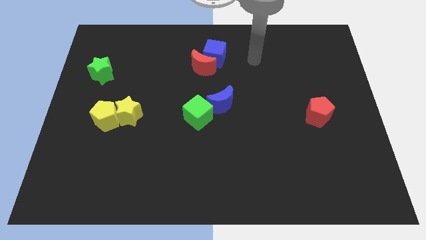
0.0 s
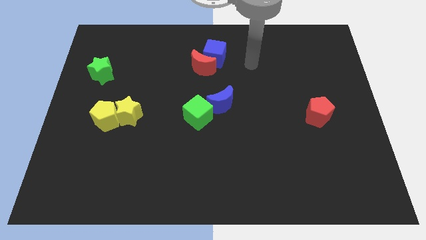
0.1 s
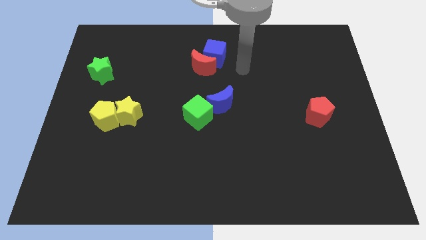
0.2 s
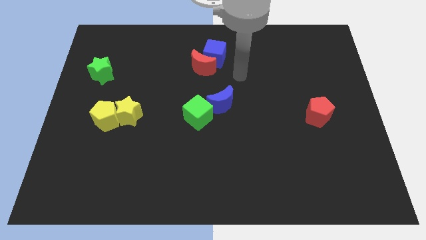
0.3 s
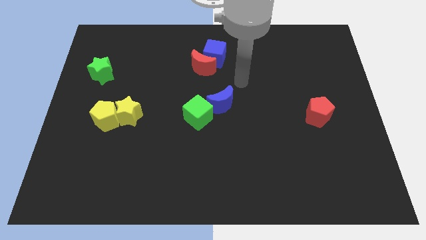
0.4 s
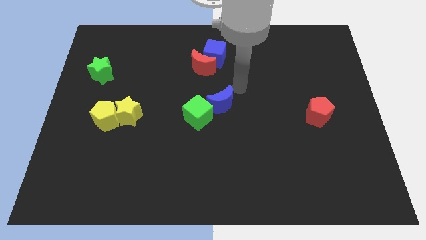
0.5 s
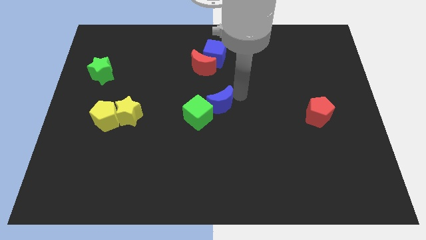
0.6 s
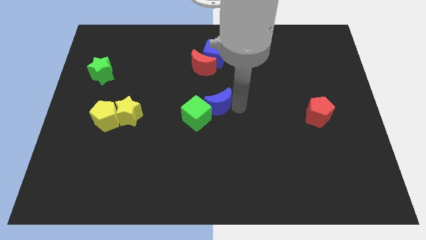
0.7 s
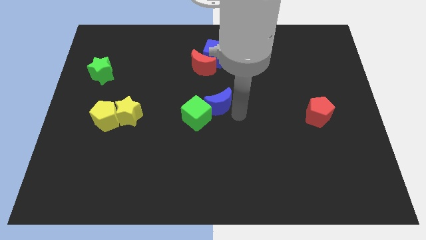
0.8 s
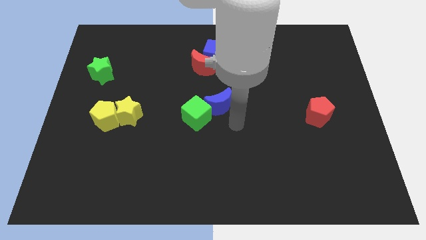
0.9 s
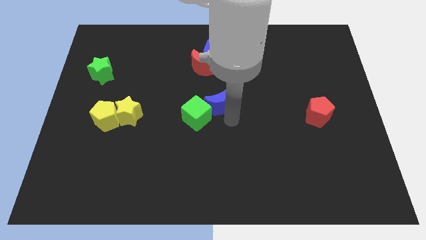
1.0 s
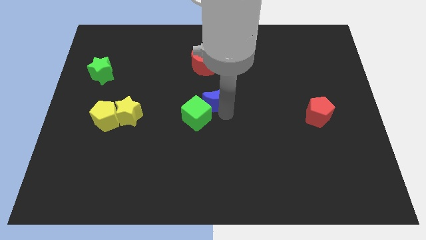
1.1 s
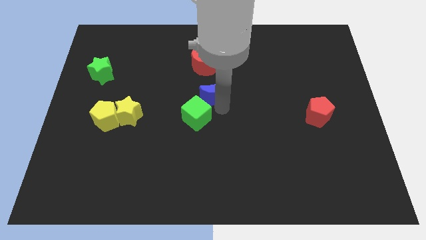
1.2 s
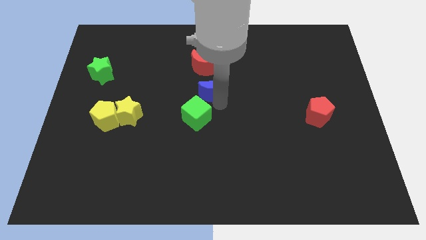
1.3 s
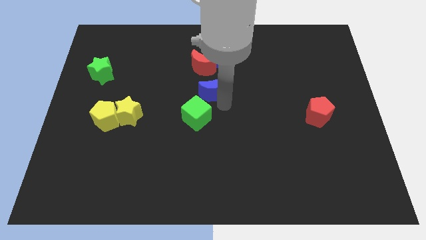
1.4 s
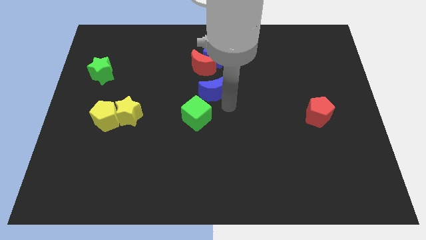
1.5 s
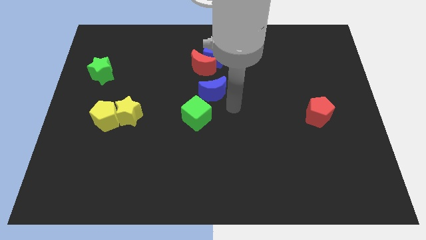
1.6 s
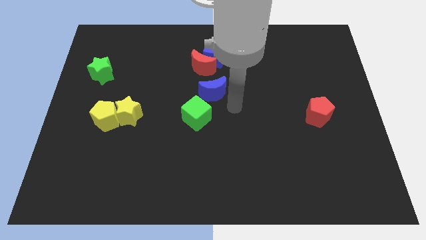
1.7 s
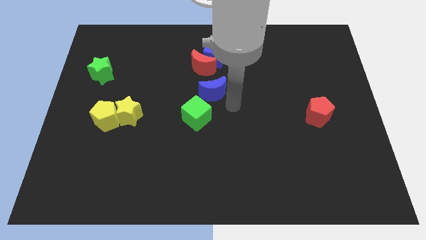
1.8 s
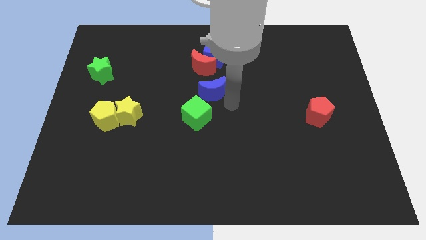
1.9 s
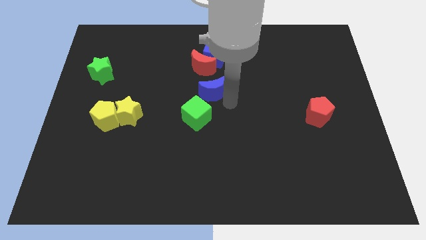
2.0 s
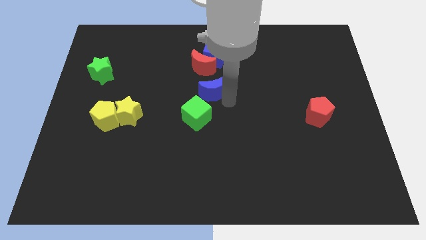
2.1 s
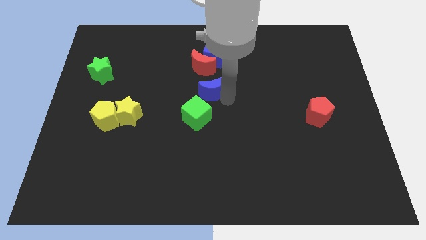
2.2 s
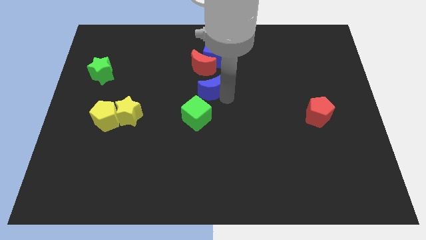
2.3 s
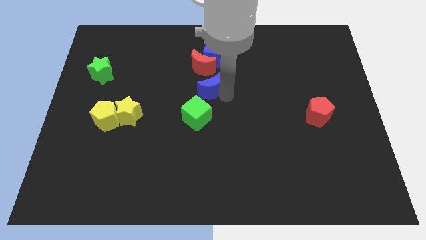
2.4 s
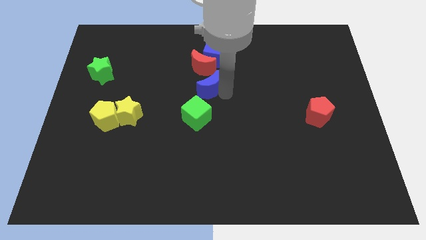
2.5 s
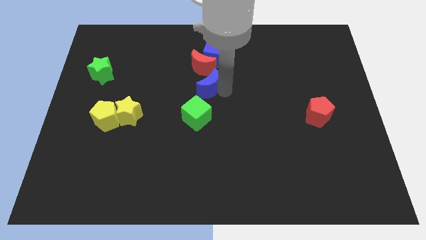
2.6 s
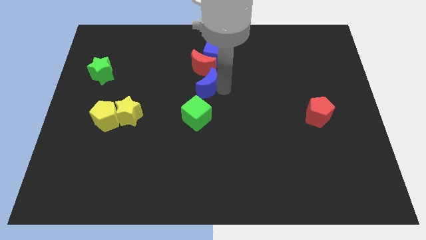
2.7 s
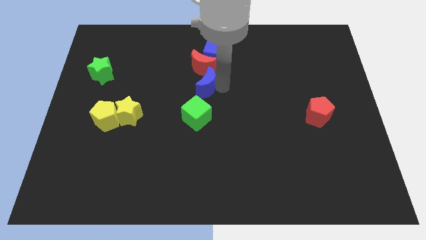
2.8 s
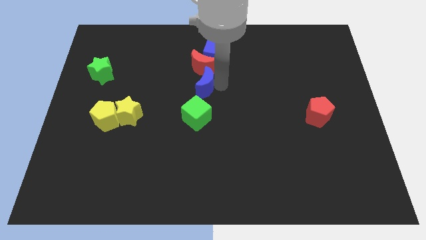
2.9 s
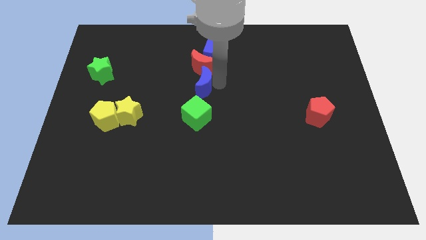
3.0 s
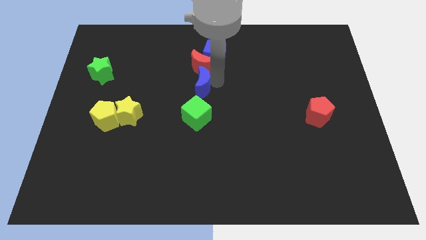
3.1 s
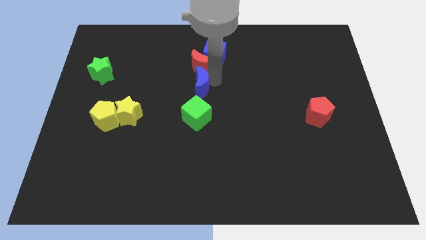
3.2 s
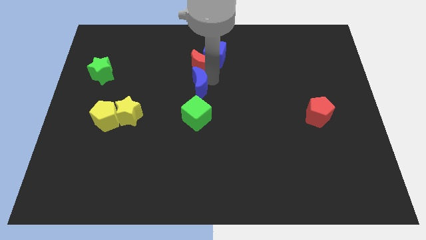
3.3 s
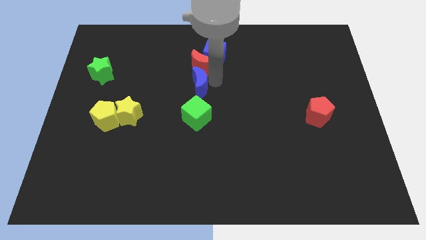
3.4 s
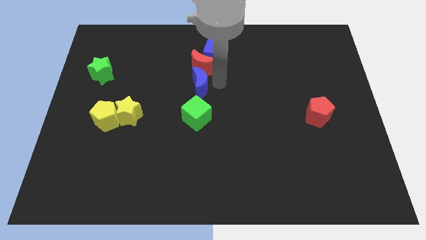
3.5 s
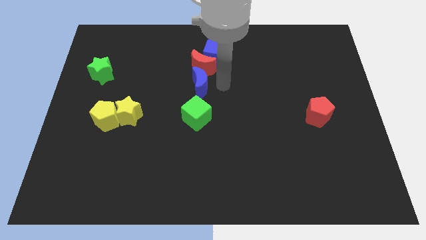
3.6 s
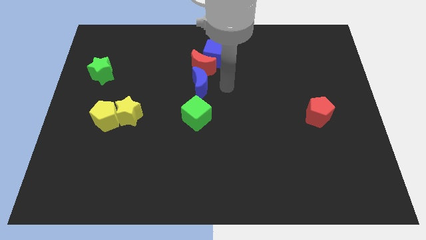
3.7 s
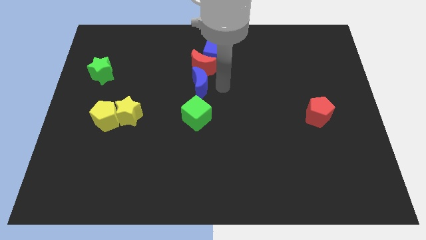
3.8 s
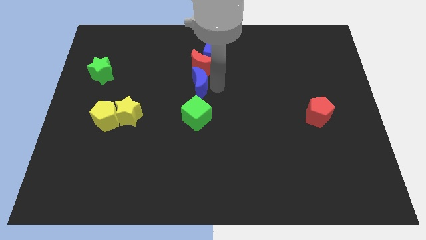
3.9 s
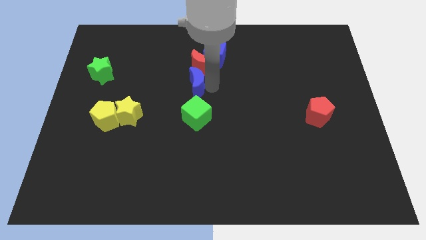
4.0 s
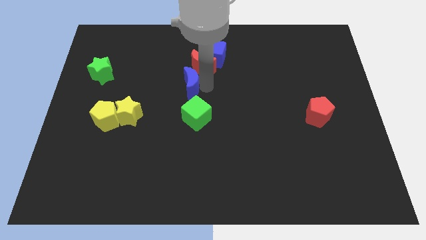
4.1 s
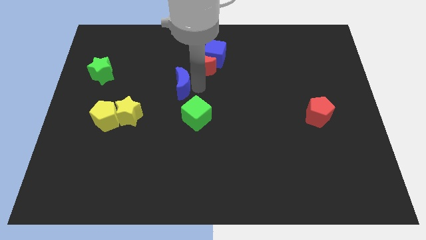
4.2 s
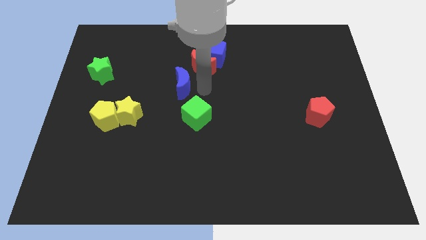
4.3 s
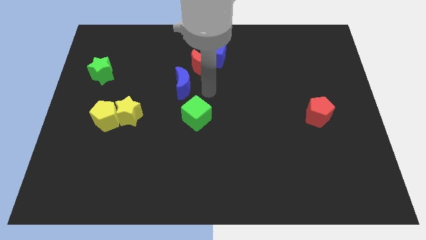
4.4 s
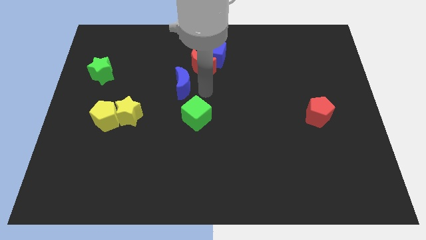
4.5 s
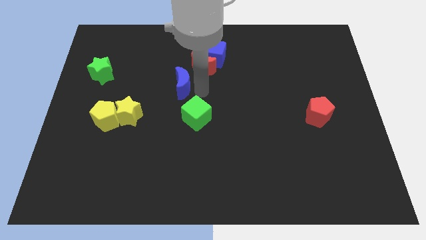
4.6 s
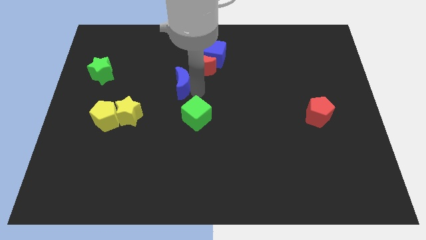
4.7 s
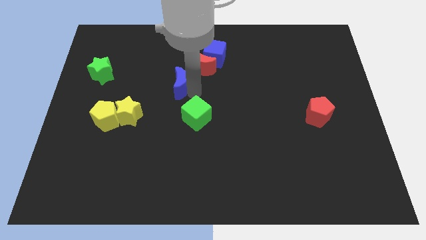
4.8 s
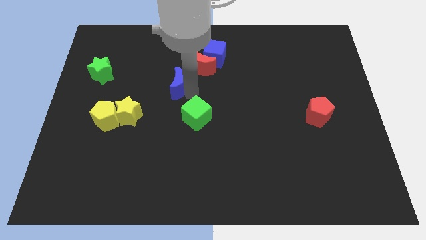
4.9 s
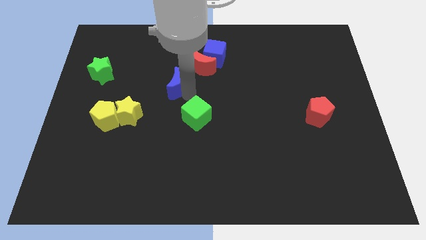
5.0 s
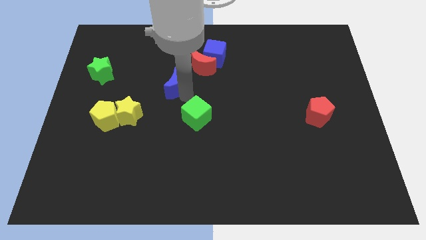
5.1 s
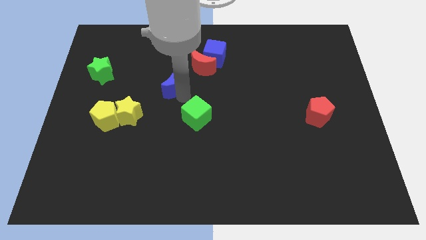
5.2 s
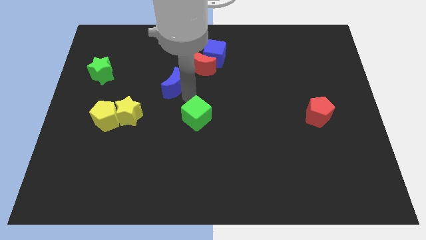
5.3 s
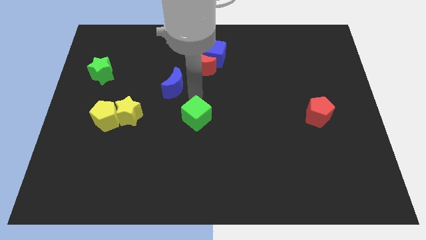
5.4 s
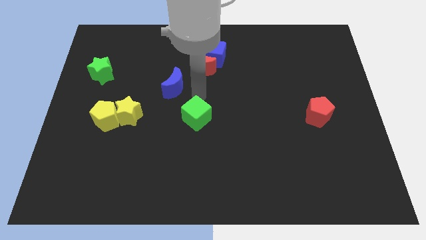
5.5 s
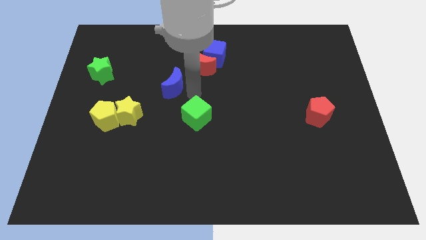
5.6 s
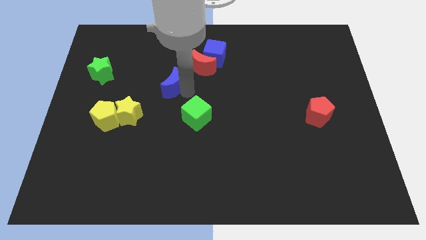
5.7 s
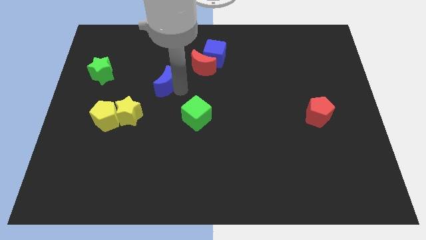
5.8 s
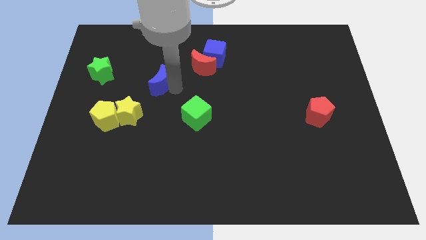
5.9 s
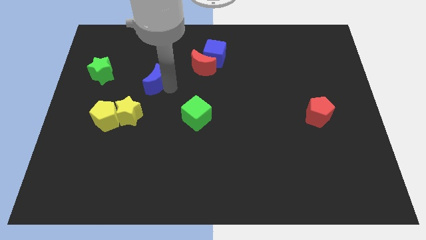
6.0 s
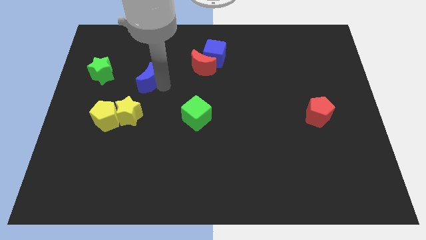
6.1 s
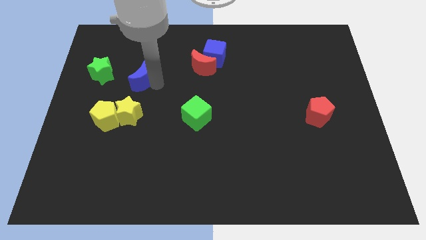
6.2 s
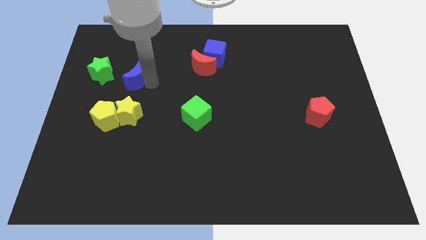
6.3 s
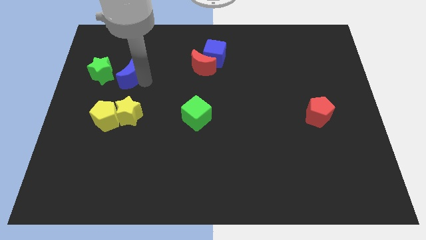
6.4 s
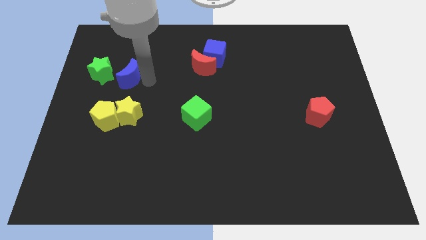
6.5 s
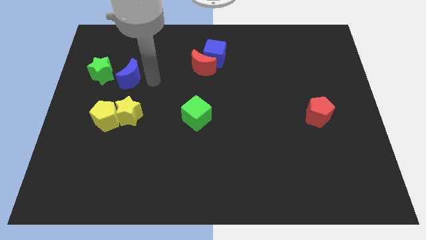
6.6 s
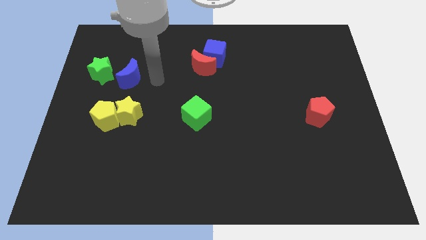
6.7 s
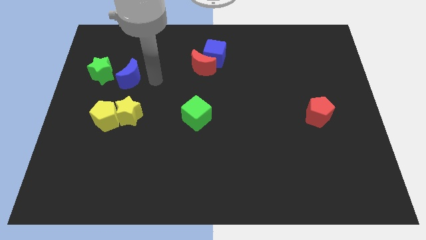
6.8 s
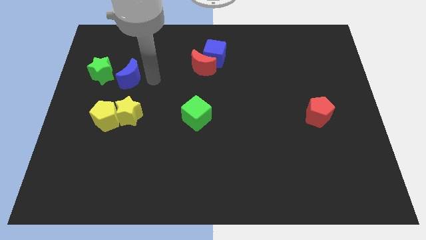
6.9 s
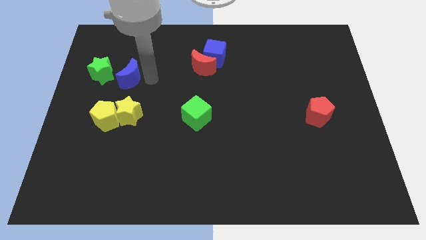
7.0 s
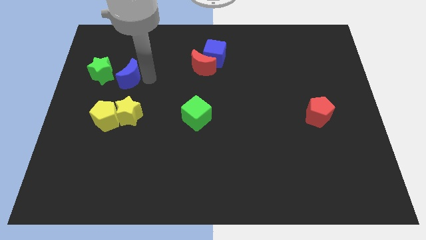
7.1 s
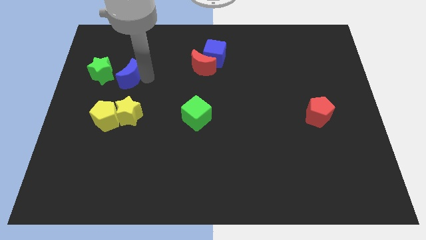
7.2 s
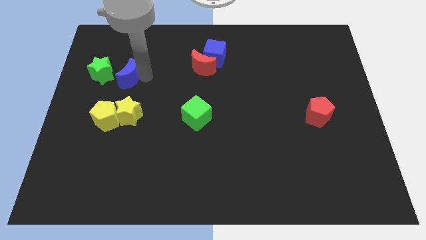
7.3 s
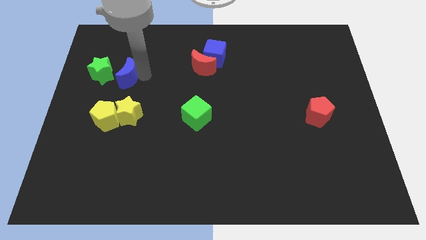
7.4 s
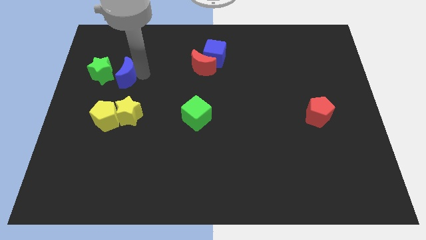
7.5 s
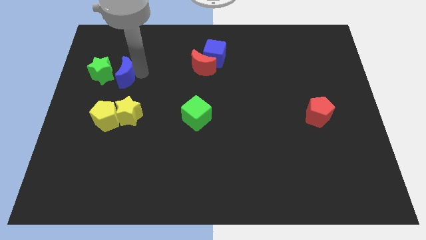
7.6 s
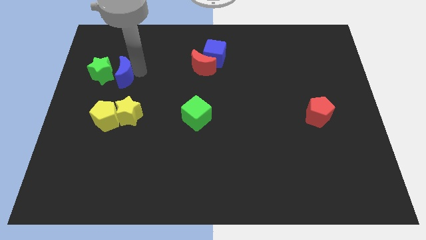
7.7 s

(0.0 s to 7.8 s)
move the blue moon towards the green star
